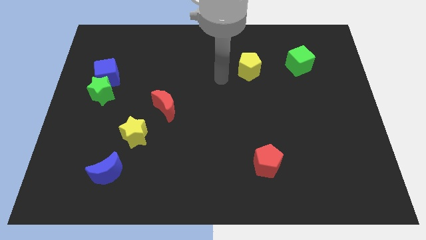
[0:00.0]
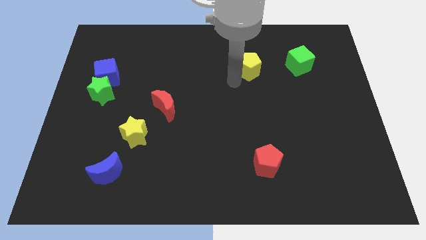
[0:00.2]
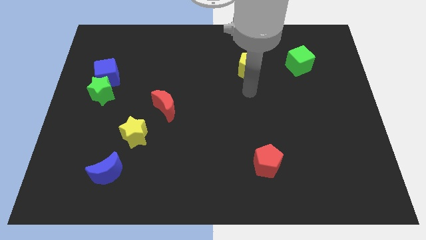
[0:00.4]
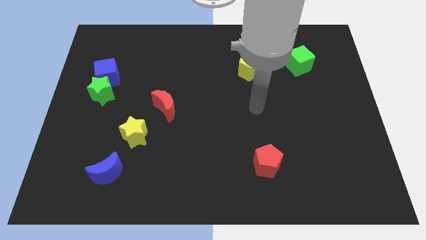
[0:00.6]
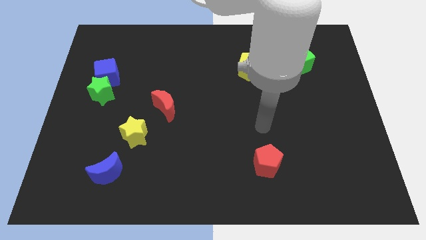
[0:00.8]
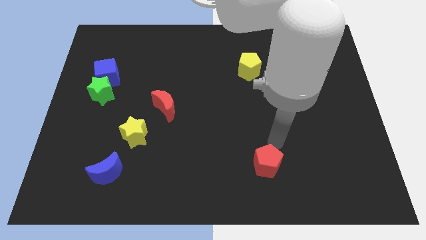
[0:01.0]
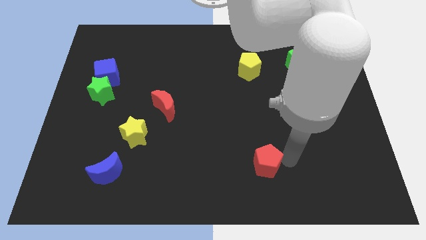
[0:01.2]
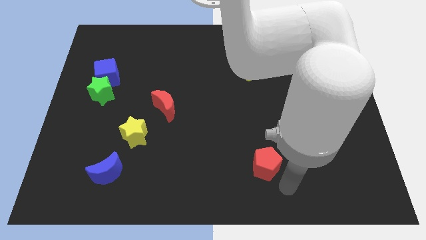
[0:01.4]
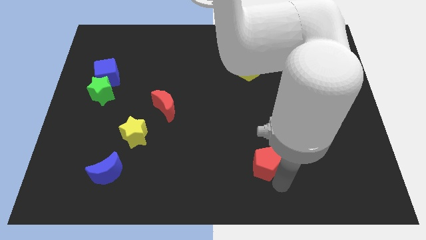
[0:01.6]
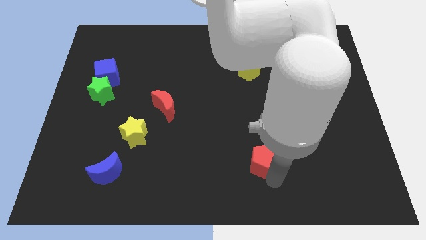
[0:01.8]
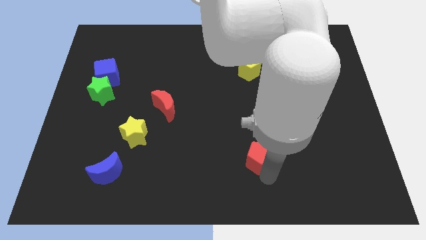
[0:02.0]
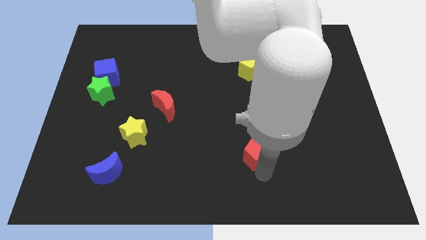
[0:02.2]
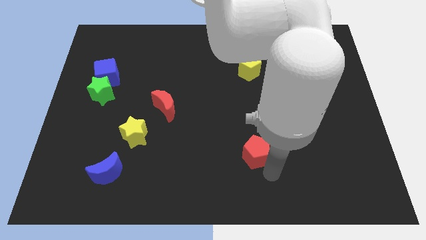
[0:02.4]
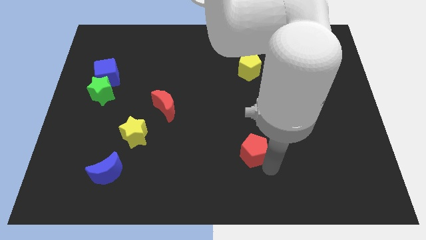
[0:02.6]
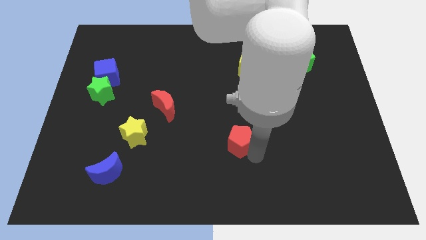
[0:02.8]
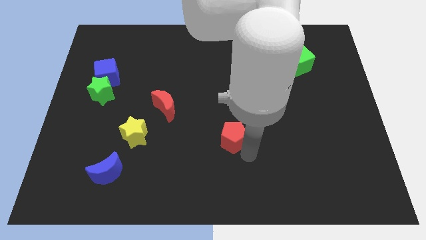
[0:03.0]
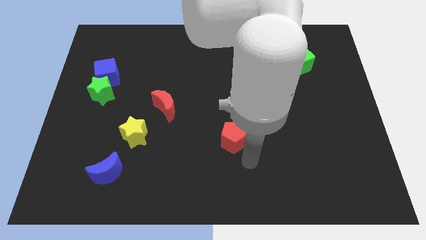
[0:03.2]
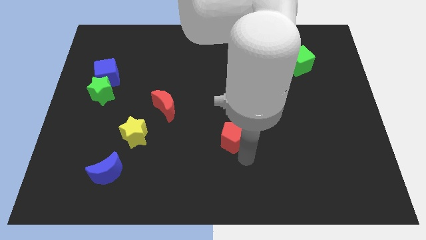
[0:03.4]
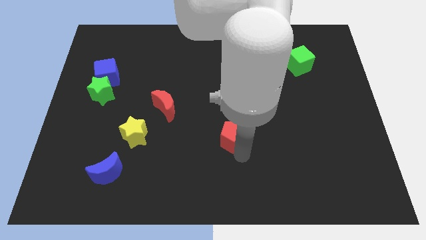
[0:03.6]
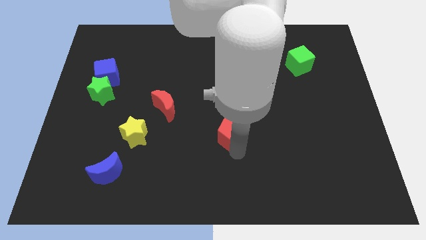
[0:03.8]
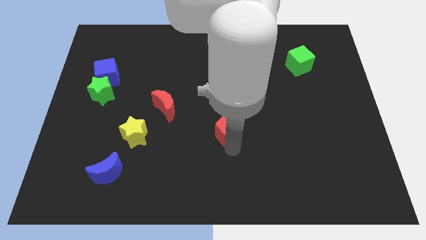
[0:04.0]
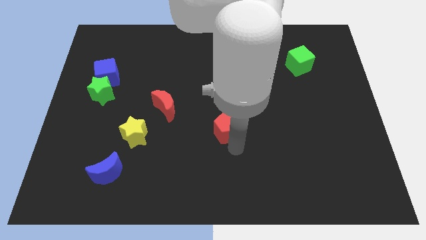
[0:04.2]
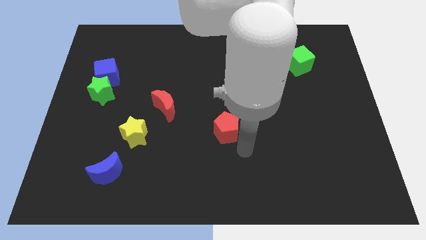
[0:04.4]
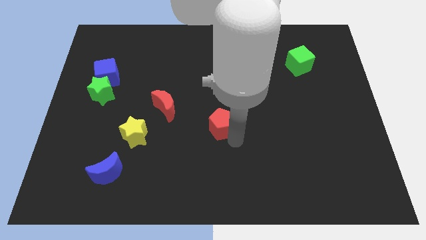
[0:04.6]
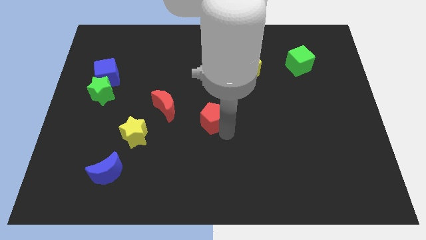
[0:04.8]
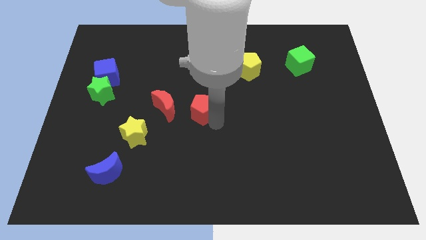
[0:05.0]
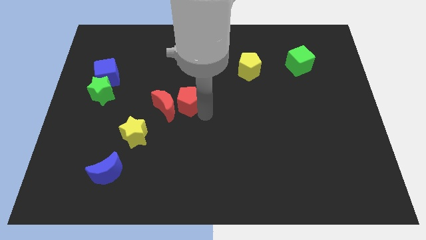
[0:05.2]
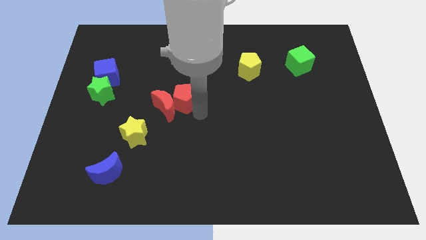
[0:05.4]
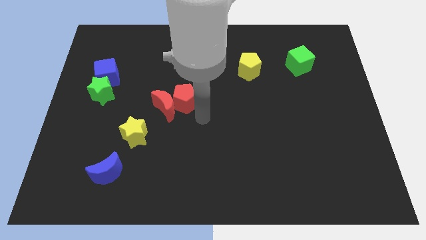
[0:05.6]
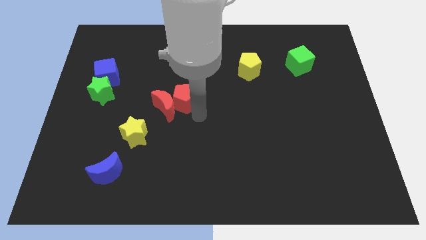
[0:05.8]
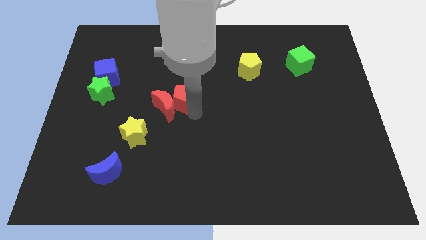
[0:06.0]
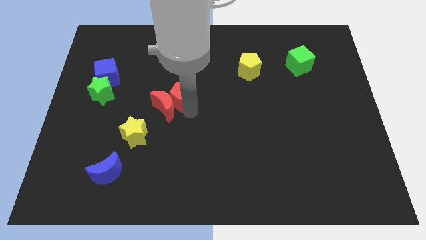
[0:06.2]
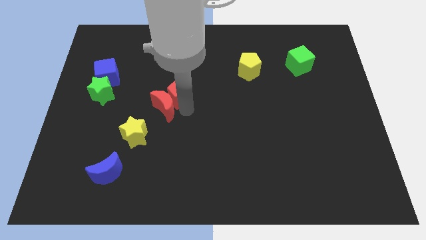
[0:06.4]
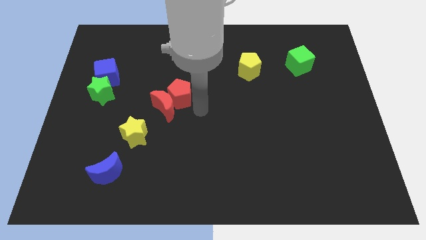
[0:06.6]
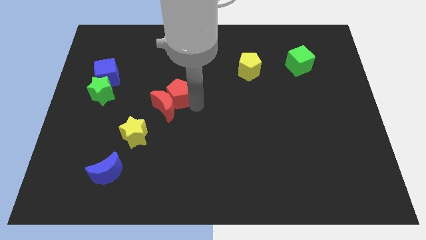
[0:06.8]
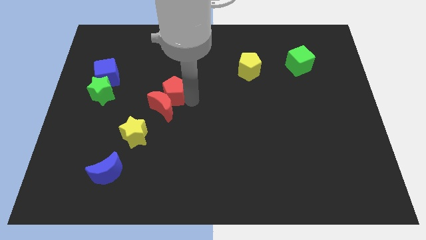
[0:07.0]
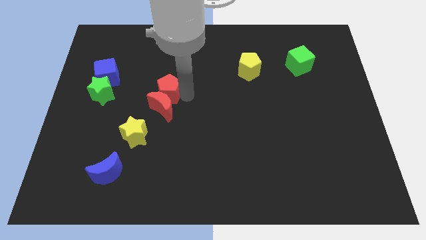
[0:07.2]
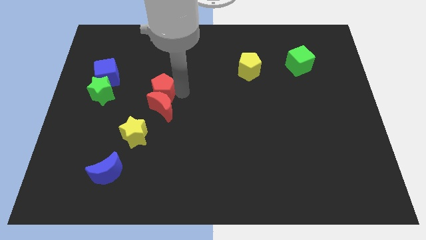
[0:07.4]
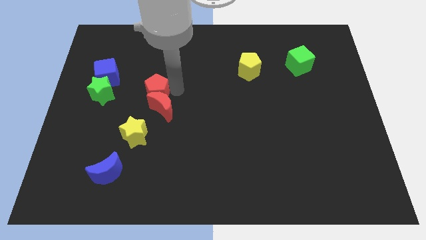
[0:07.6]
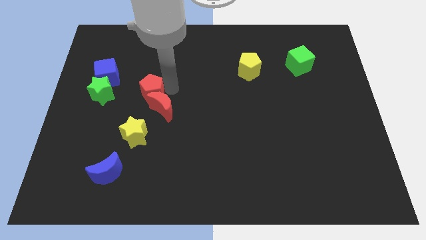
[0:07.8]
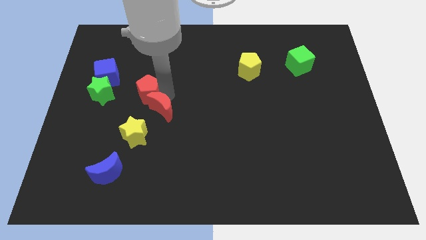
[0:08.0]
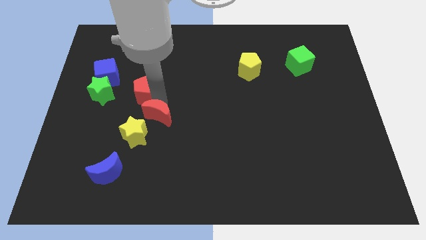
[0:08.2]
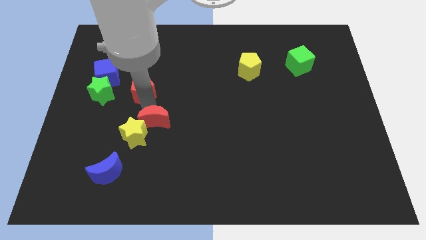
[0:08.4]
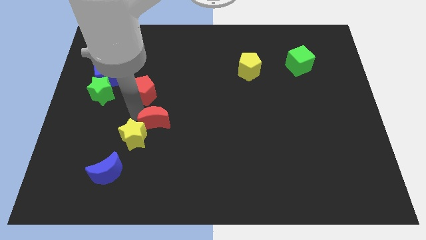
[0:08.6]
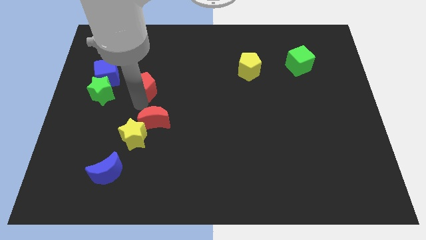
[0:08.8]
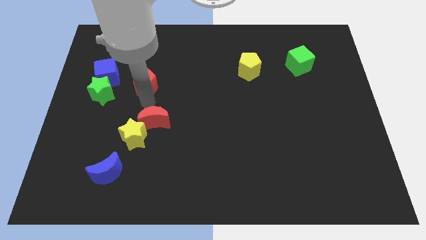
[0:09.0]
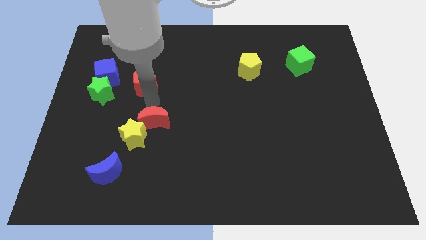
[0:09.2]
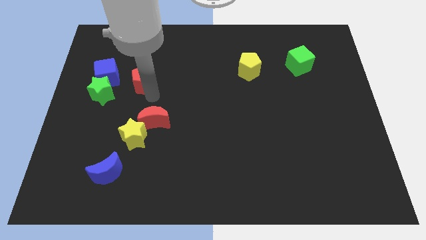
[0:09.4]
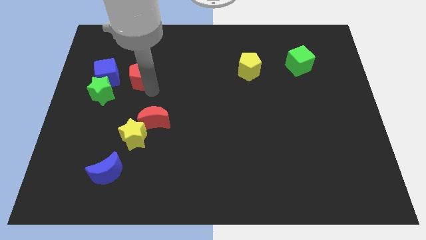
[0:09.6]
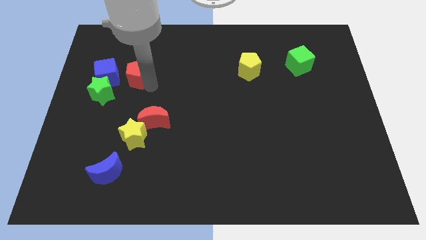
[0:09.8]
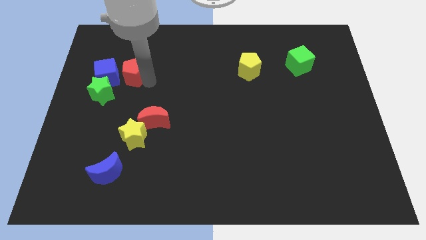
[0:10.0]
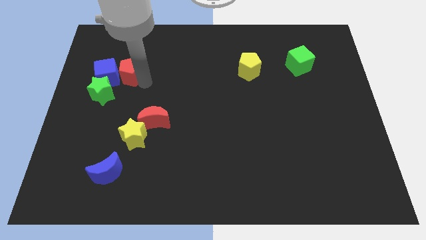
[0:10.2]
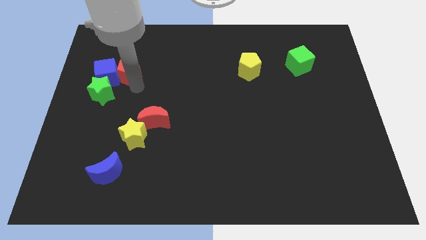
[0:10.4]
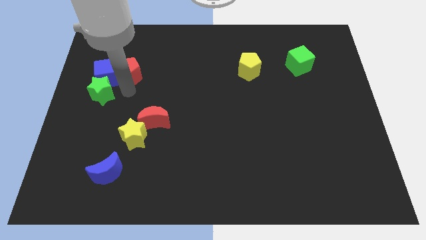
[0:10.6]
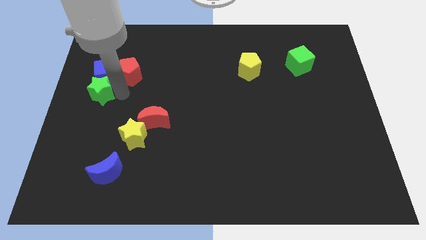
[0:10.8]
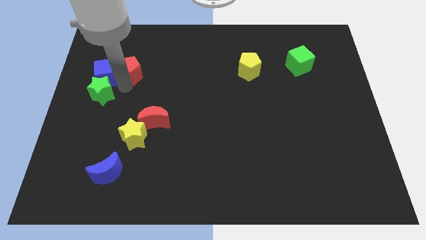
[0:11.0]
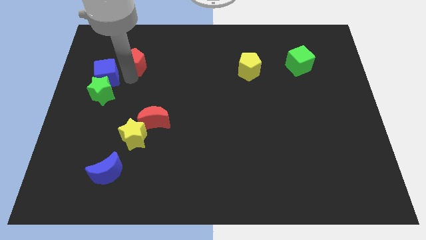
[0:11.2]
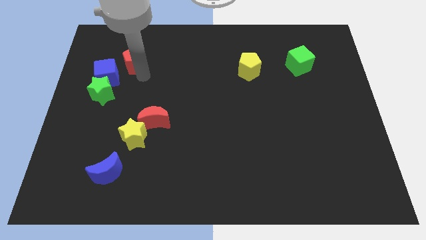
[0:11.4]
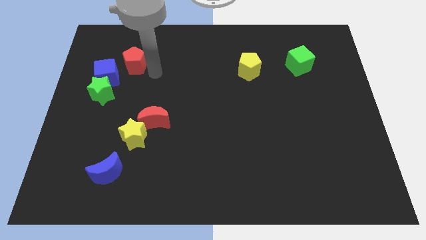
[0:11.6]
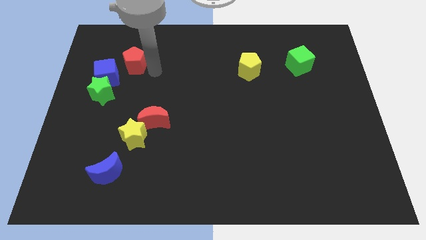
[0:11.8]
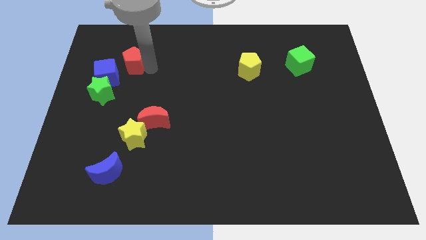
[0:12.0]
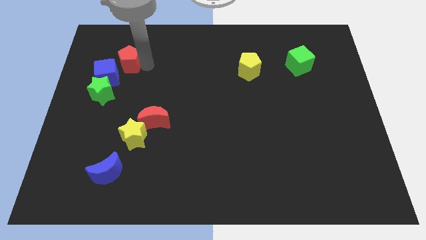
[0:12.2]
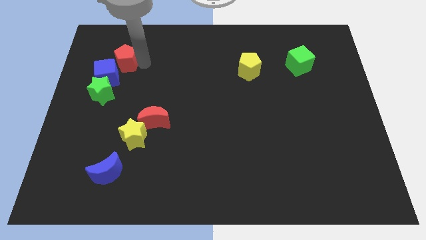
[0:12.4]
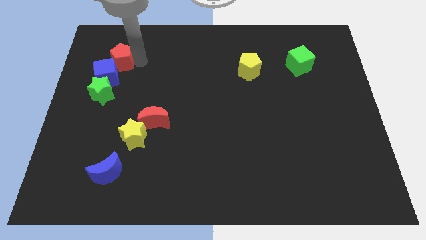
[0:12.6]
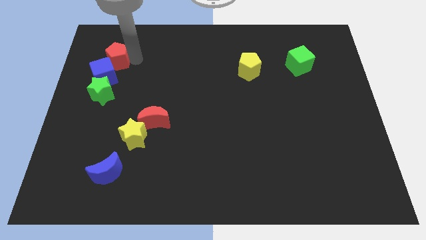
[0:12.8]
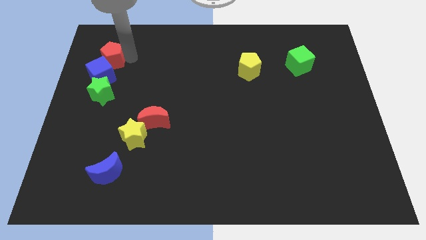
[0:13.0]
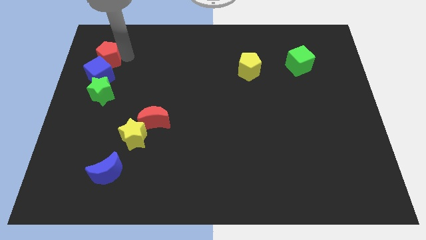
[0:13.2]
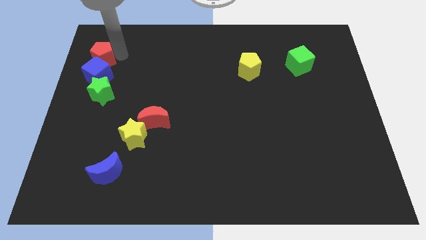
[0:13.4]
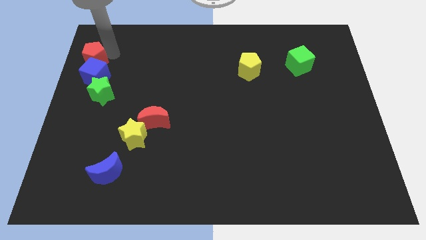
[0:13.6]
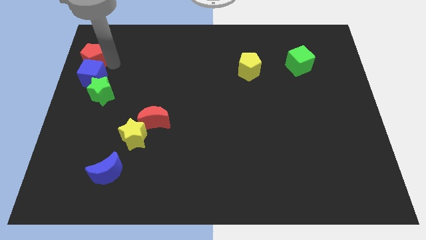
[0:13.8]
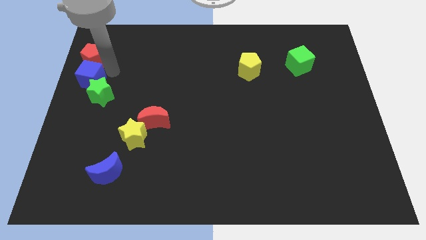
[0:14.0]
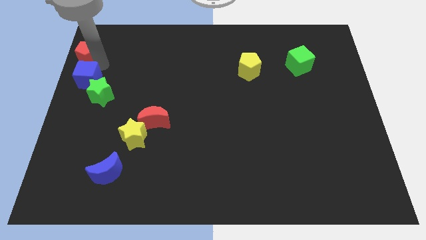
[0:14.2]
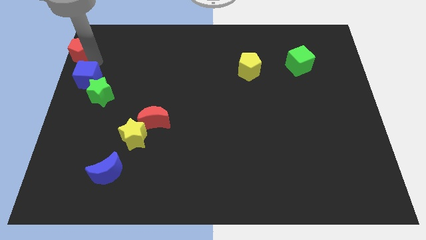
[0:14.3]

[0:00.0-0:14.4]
slide the red pentagon to the top left corner
